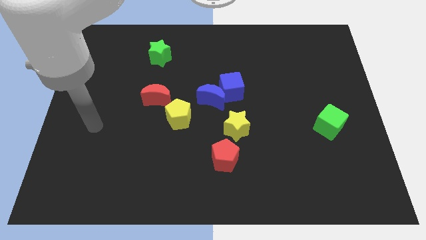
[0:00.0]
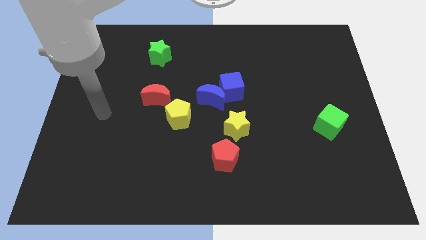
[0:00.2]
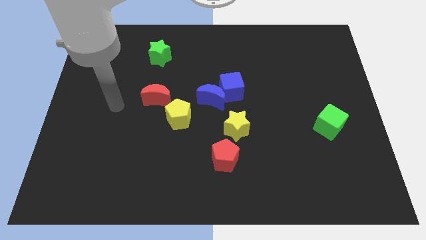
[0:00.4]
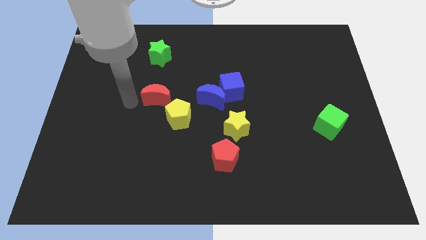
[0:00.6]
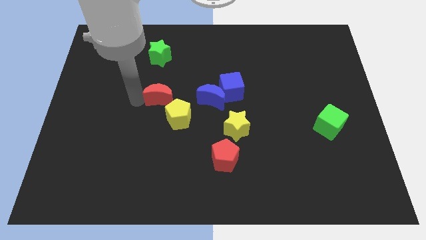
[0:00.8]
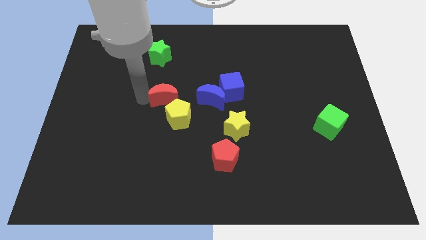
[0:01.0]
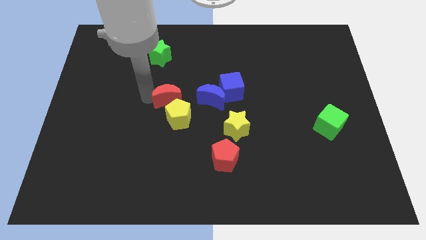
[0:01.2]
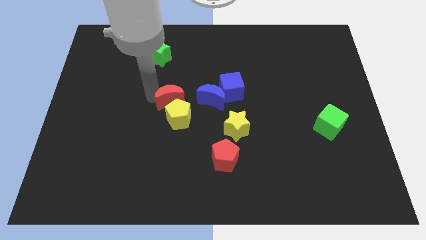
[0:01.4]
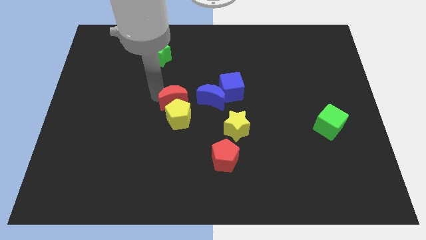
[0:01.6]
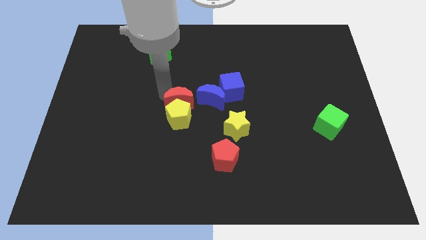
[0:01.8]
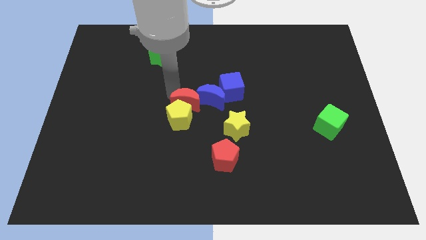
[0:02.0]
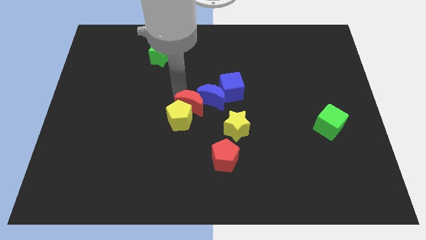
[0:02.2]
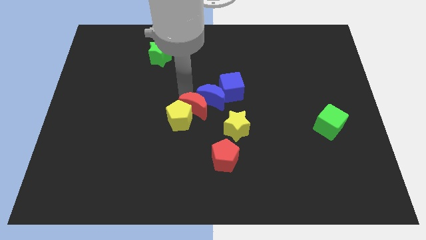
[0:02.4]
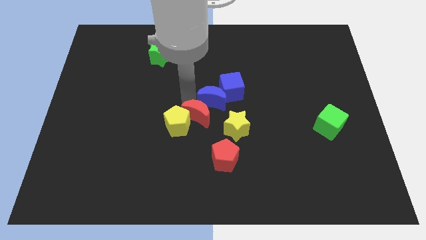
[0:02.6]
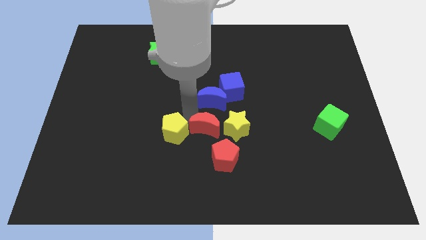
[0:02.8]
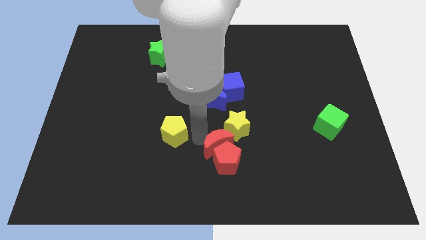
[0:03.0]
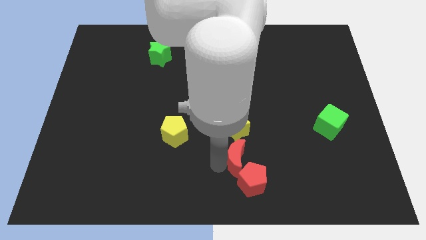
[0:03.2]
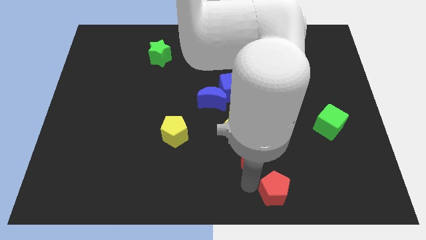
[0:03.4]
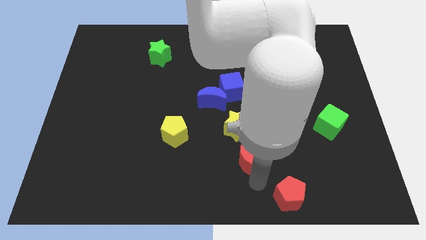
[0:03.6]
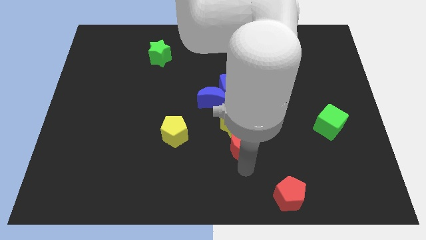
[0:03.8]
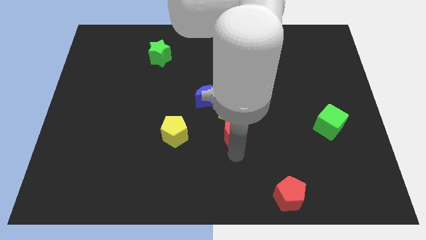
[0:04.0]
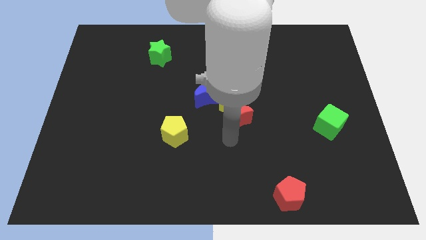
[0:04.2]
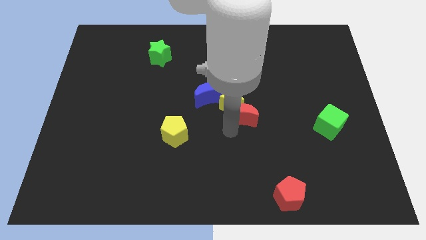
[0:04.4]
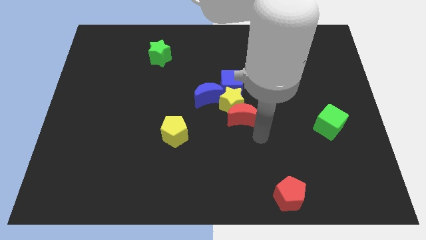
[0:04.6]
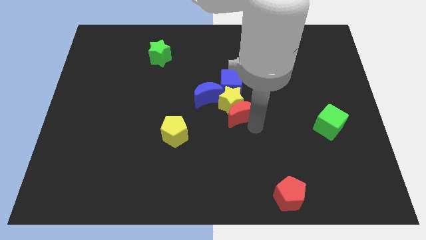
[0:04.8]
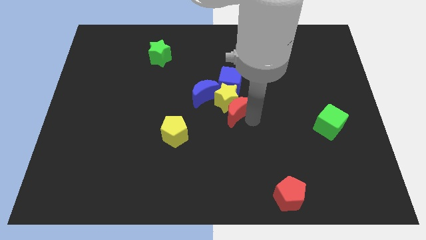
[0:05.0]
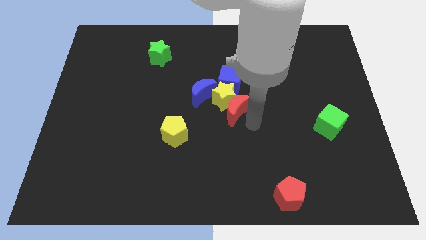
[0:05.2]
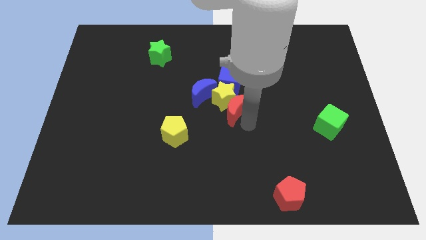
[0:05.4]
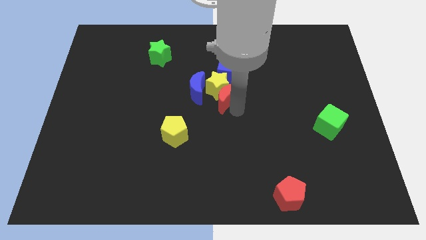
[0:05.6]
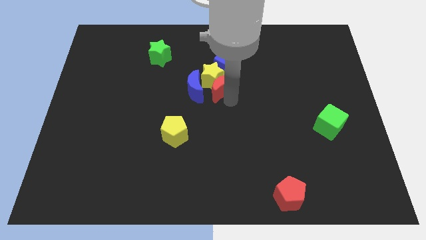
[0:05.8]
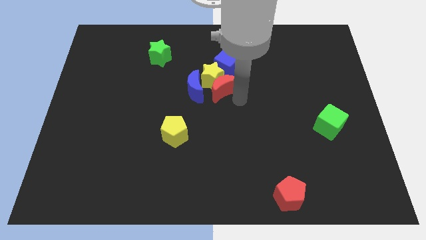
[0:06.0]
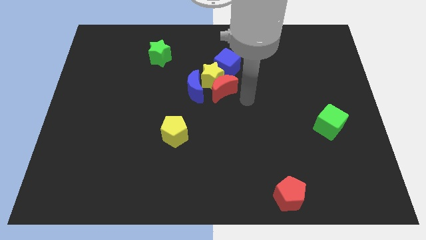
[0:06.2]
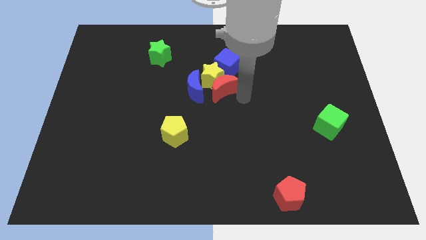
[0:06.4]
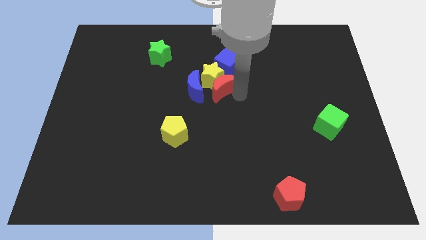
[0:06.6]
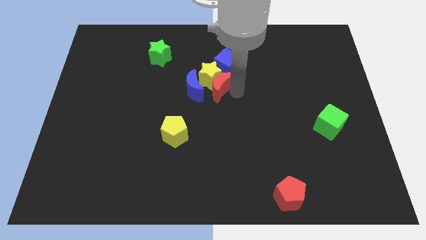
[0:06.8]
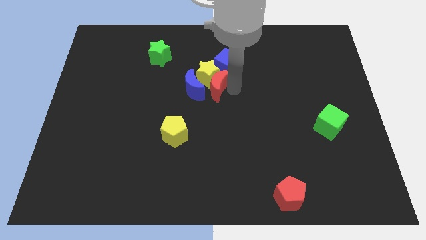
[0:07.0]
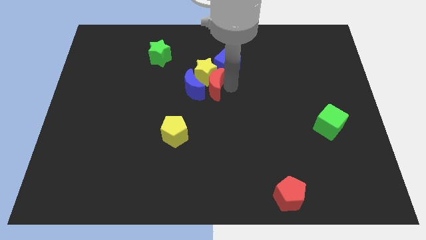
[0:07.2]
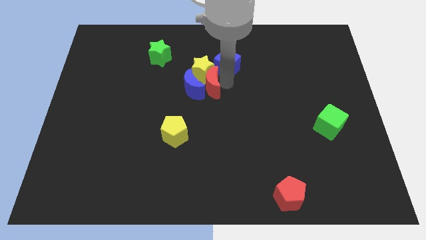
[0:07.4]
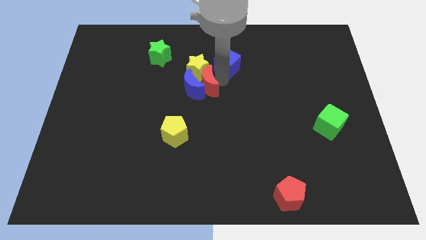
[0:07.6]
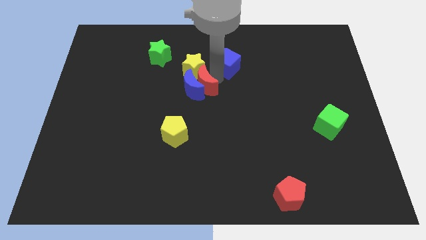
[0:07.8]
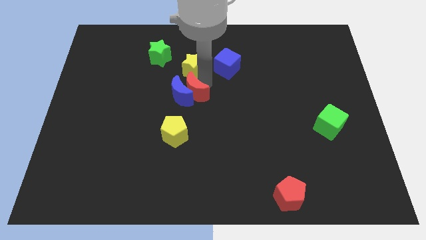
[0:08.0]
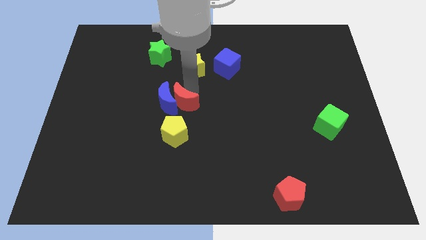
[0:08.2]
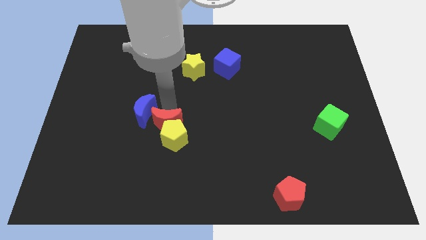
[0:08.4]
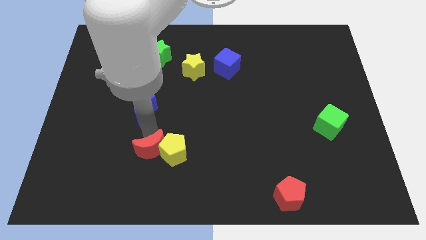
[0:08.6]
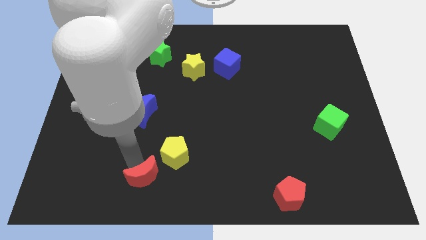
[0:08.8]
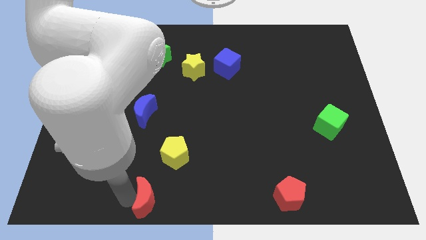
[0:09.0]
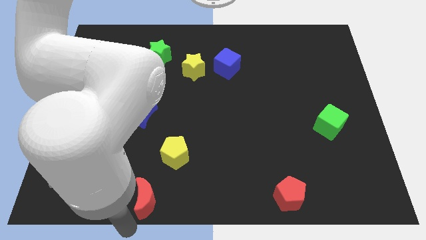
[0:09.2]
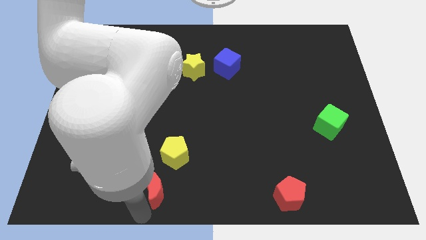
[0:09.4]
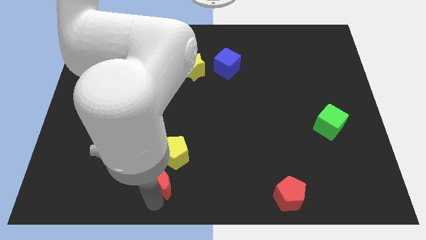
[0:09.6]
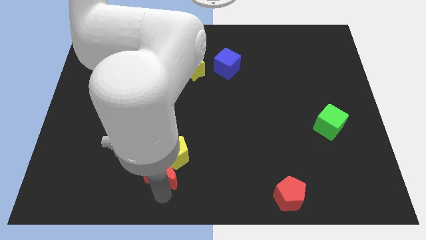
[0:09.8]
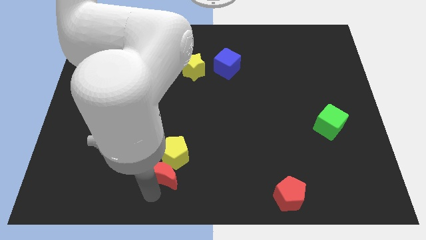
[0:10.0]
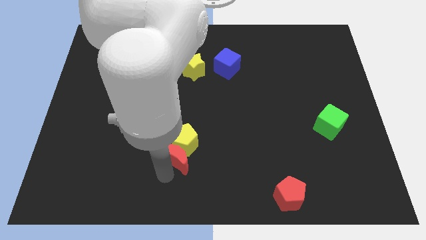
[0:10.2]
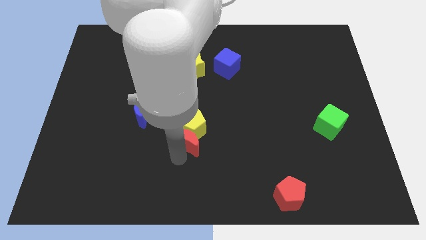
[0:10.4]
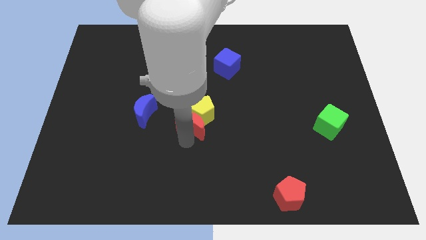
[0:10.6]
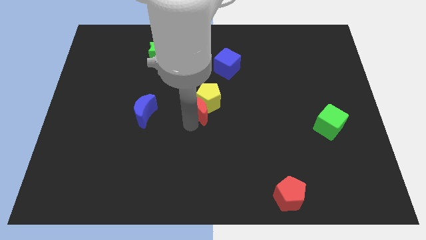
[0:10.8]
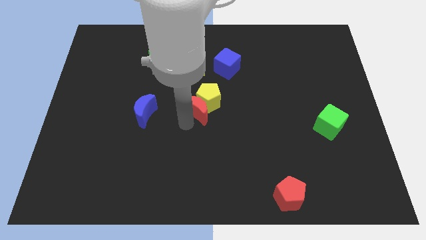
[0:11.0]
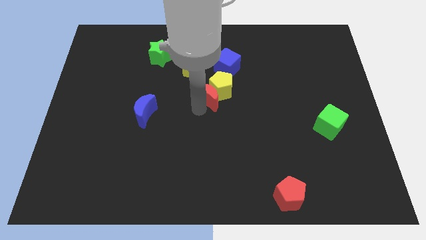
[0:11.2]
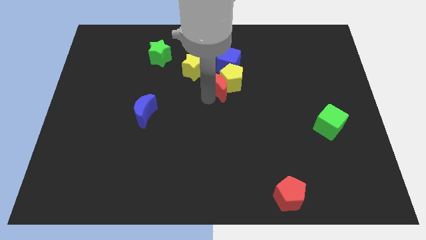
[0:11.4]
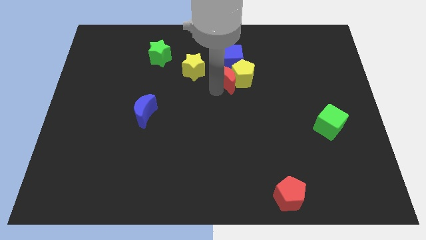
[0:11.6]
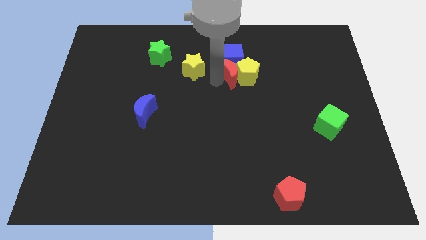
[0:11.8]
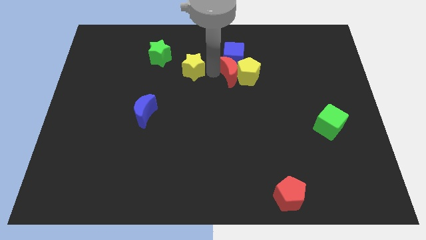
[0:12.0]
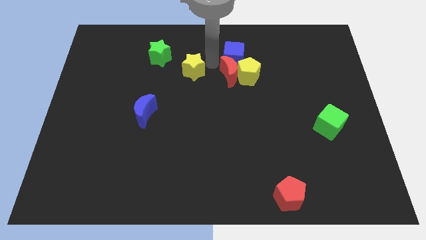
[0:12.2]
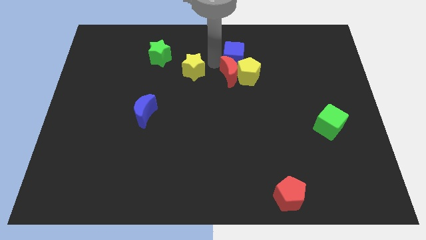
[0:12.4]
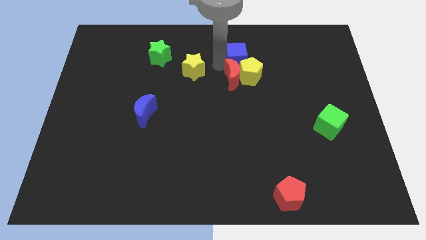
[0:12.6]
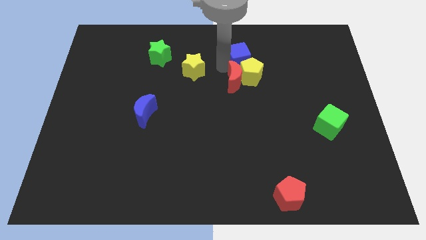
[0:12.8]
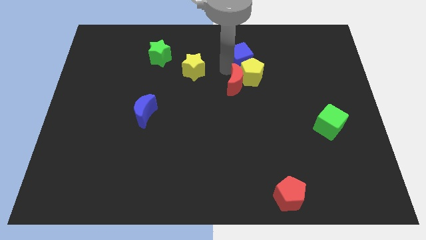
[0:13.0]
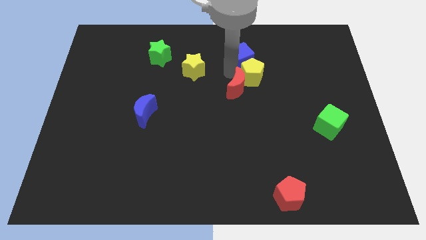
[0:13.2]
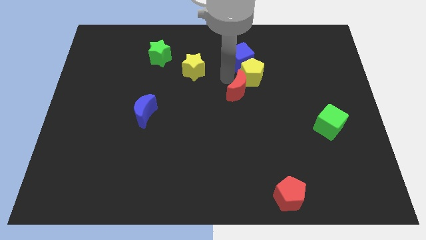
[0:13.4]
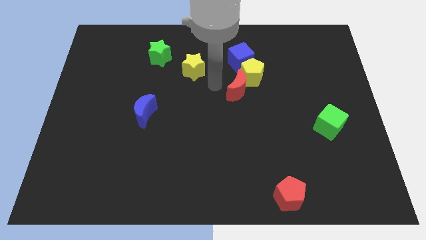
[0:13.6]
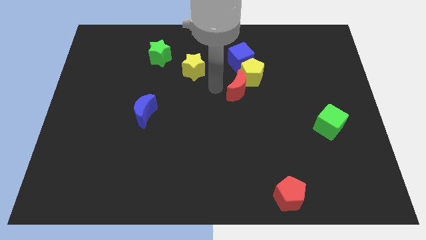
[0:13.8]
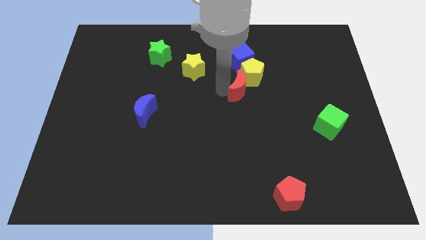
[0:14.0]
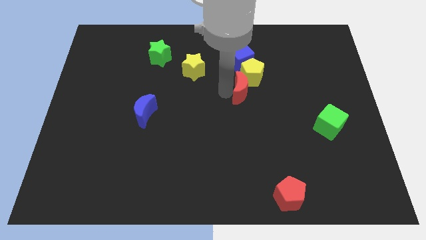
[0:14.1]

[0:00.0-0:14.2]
slide the red moon right
